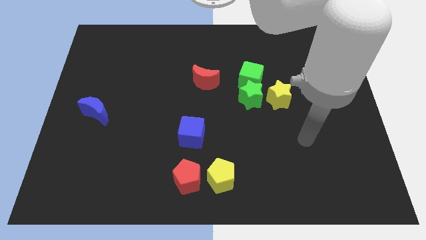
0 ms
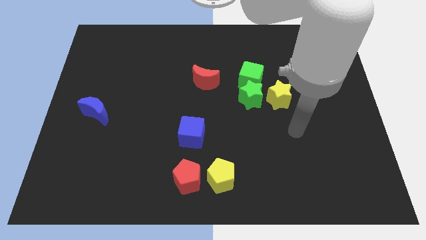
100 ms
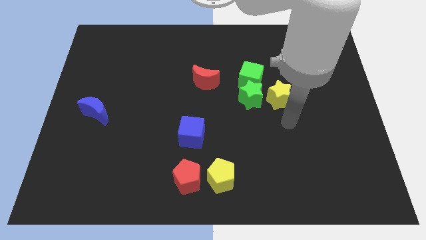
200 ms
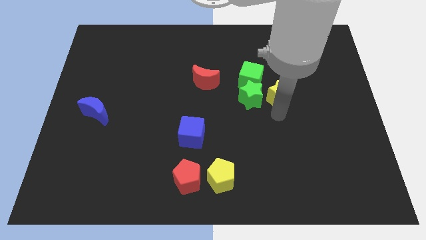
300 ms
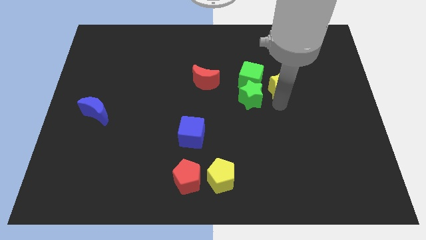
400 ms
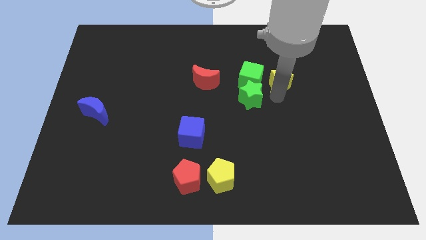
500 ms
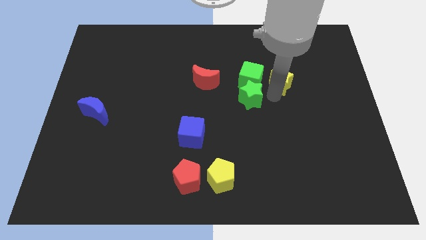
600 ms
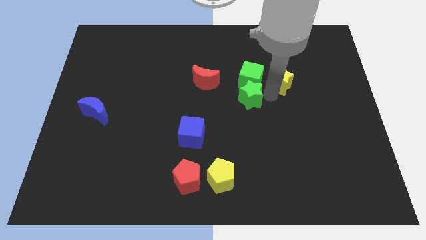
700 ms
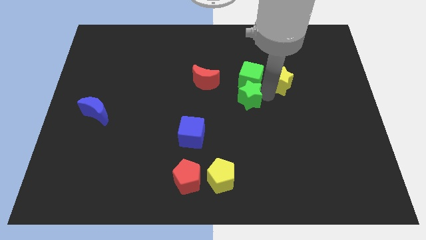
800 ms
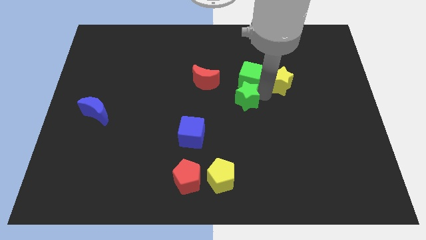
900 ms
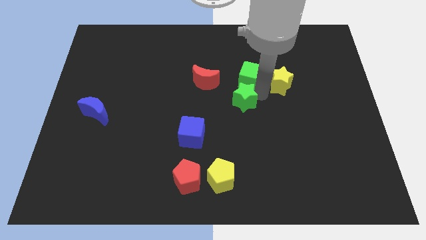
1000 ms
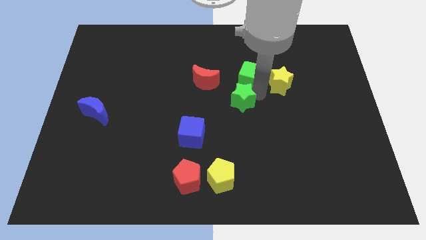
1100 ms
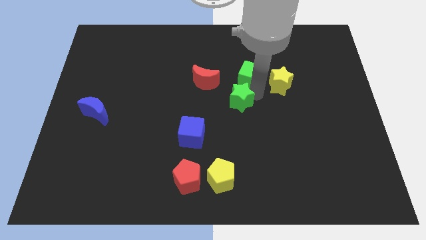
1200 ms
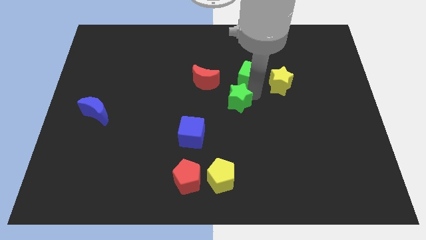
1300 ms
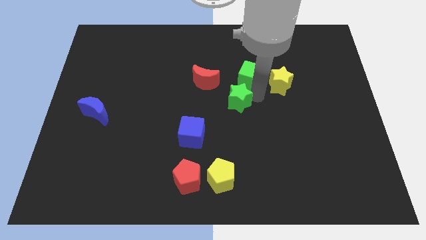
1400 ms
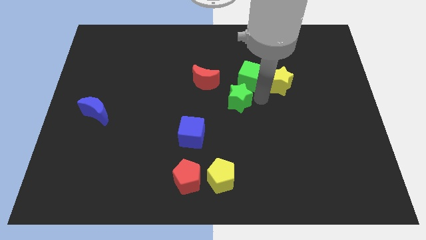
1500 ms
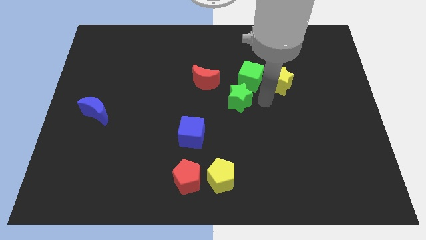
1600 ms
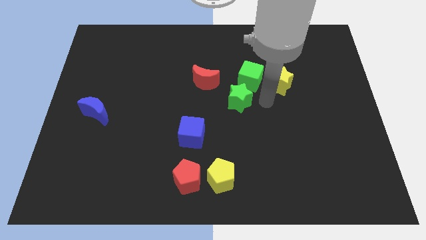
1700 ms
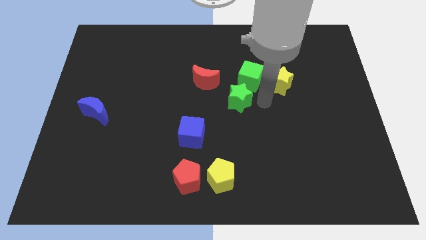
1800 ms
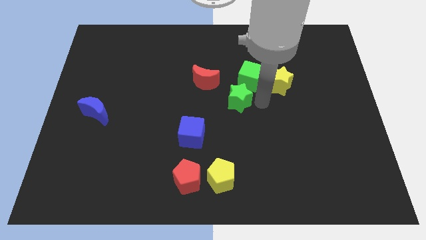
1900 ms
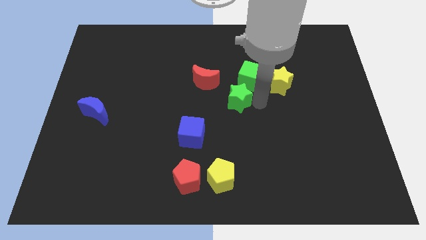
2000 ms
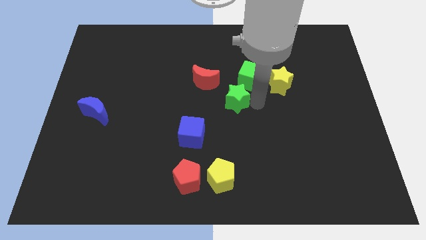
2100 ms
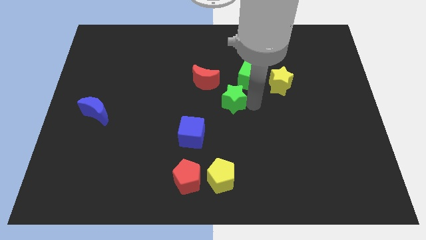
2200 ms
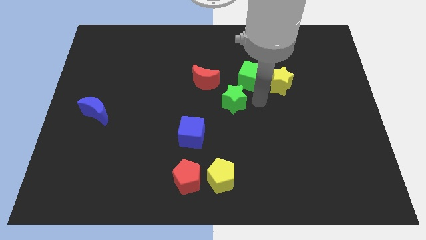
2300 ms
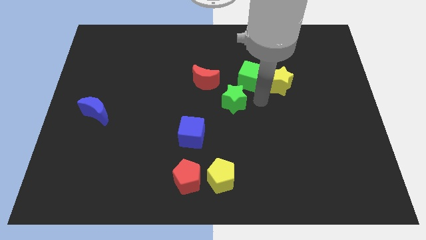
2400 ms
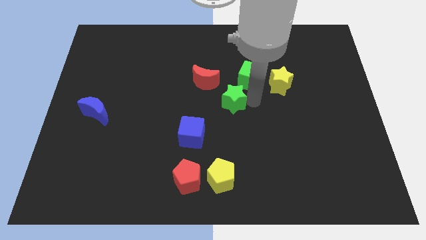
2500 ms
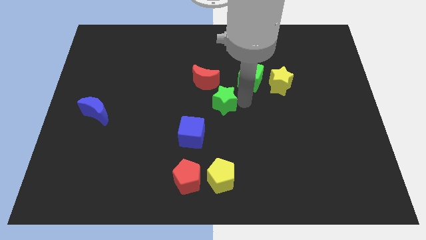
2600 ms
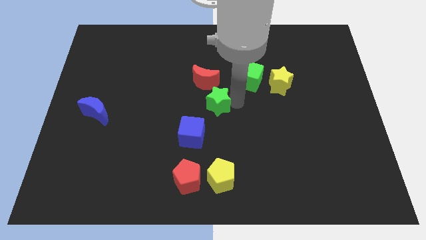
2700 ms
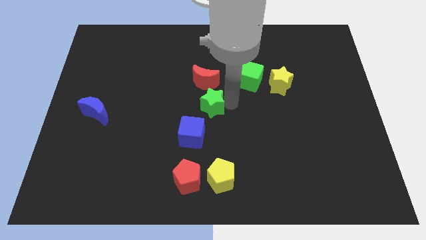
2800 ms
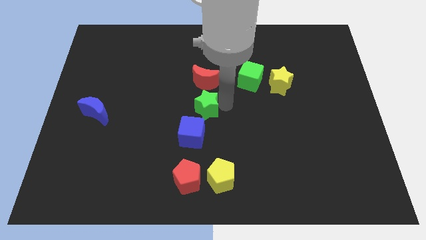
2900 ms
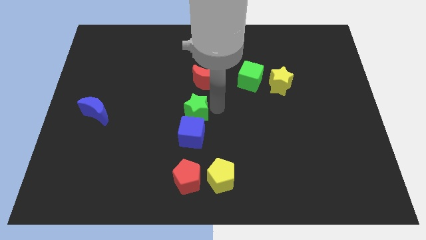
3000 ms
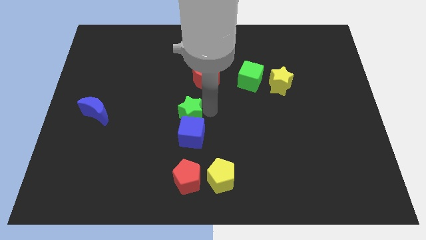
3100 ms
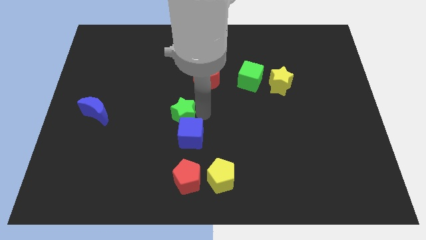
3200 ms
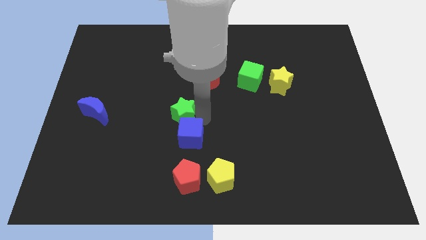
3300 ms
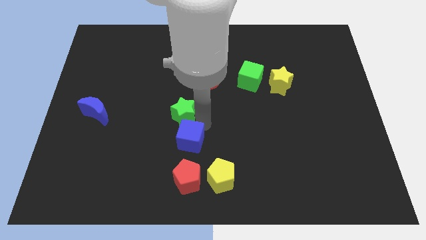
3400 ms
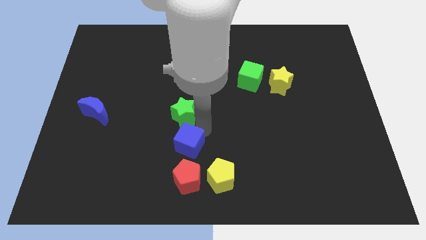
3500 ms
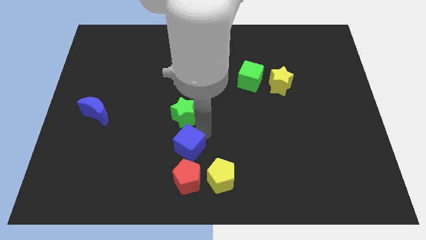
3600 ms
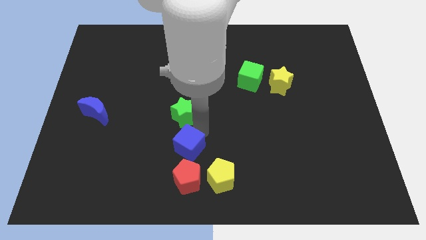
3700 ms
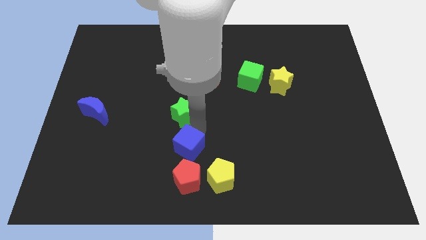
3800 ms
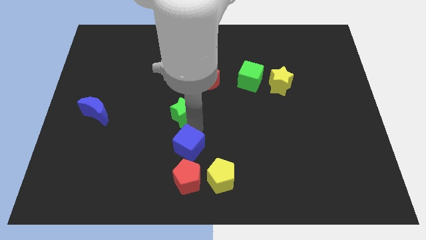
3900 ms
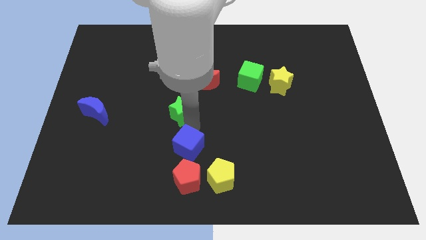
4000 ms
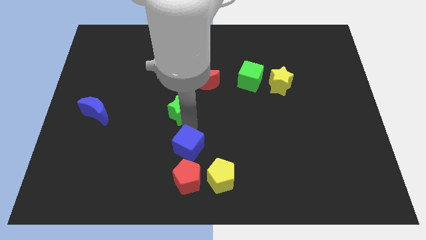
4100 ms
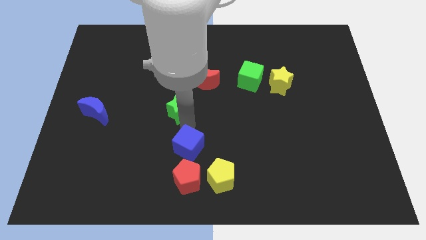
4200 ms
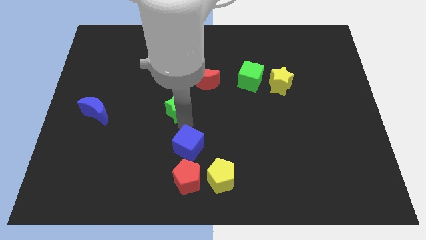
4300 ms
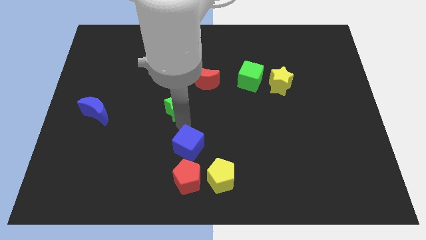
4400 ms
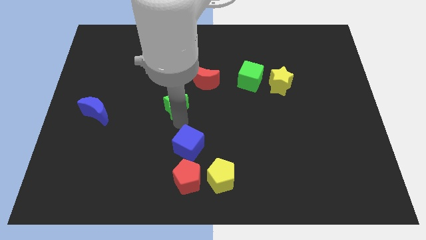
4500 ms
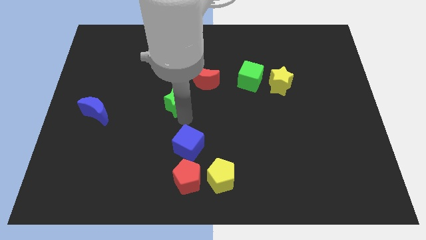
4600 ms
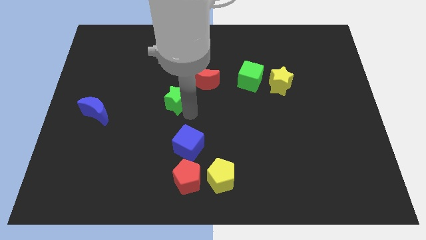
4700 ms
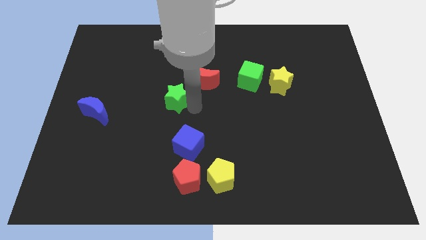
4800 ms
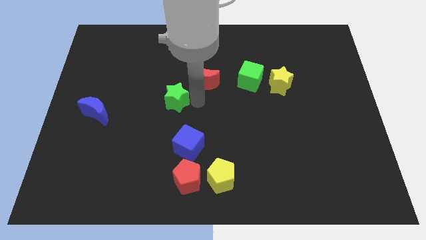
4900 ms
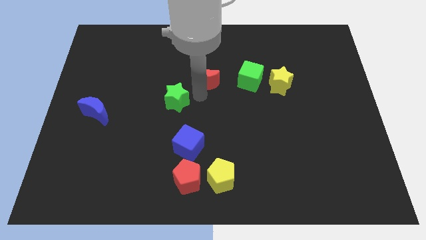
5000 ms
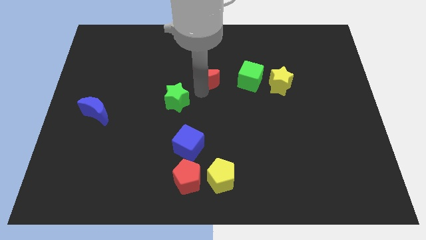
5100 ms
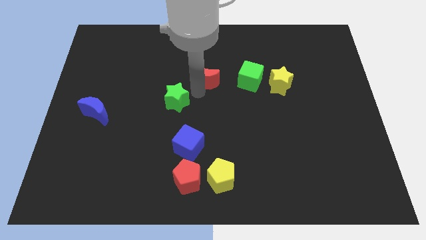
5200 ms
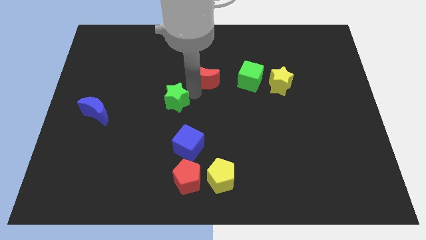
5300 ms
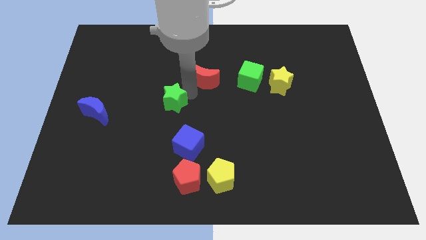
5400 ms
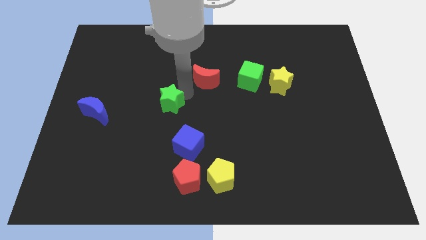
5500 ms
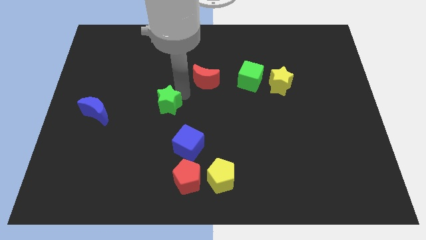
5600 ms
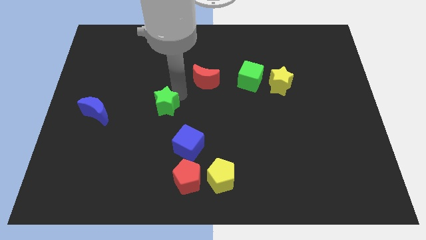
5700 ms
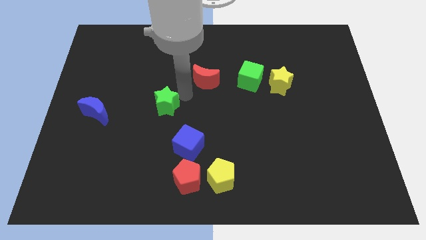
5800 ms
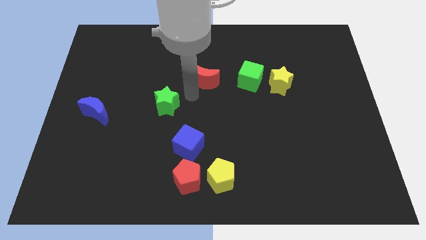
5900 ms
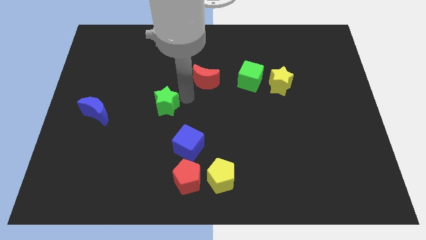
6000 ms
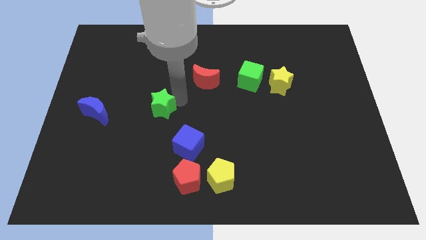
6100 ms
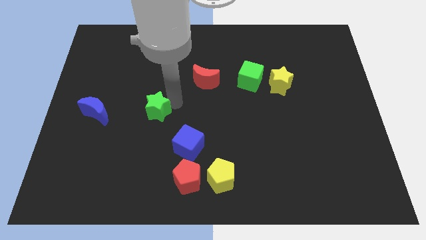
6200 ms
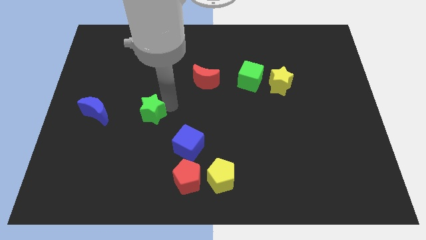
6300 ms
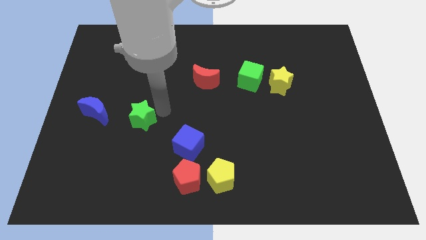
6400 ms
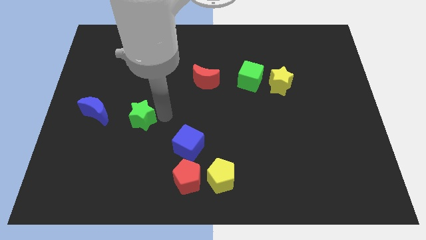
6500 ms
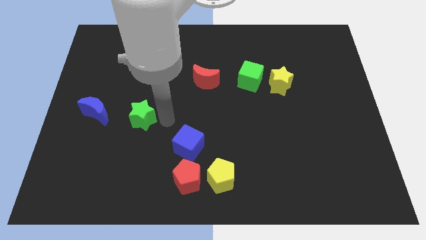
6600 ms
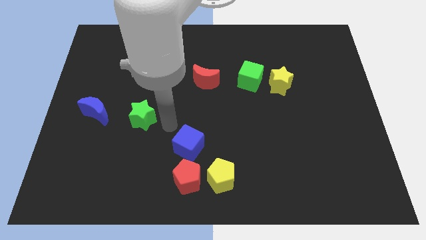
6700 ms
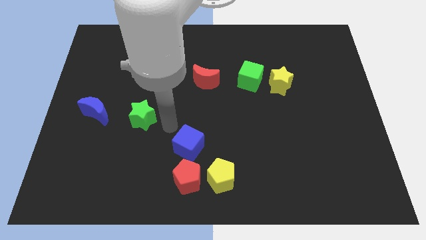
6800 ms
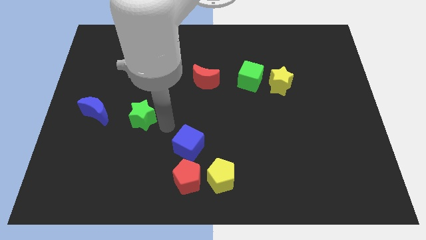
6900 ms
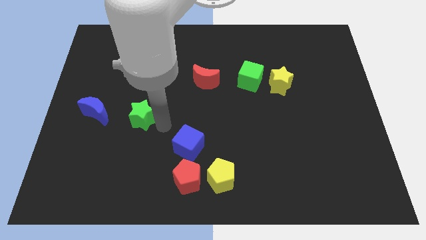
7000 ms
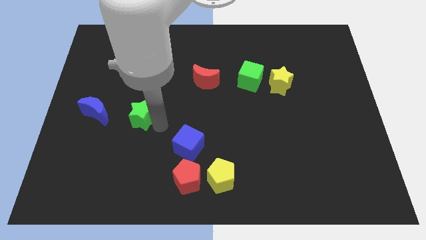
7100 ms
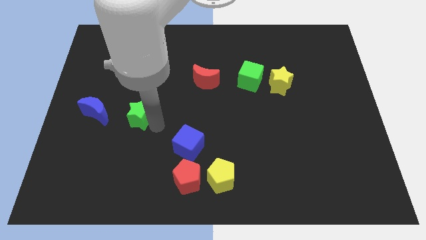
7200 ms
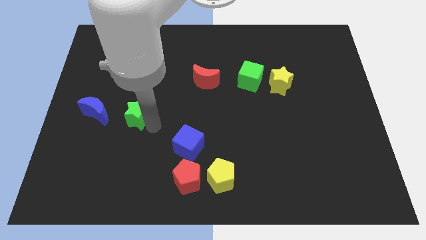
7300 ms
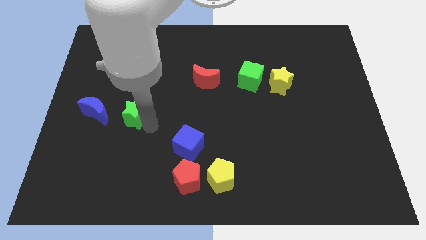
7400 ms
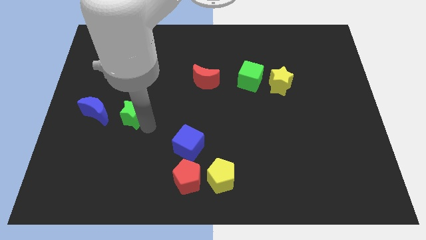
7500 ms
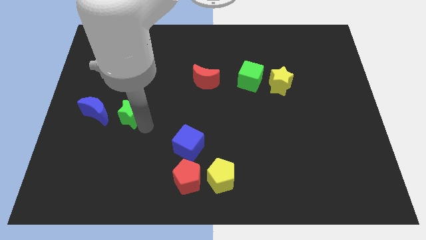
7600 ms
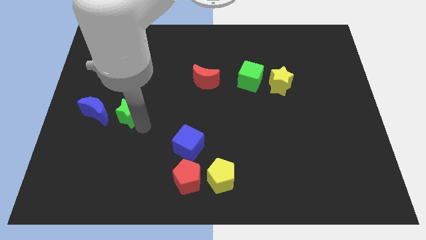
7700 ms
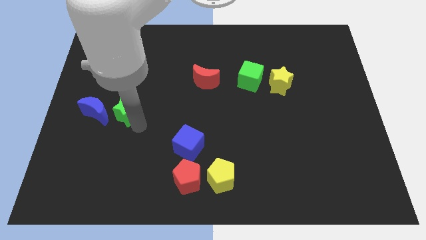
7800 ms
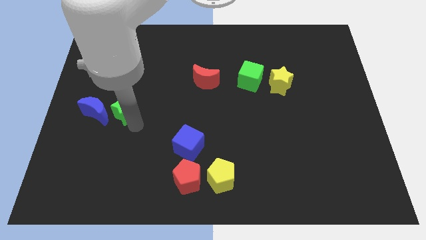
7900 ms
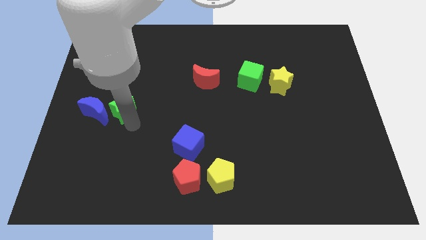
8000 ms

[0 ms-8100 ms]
slide the green star close to the blue moon
